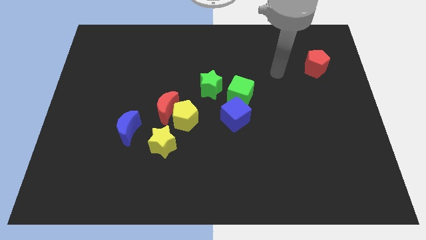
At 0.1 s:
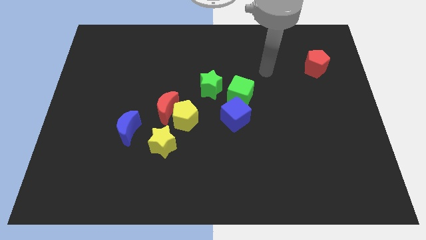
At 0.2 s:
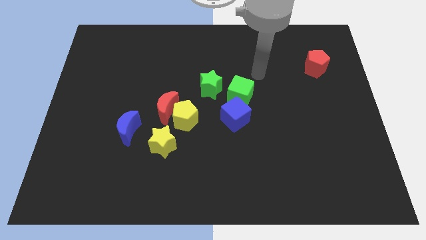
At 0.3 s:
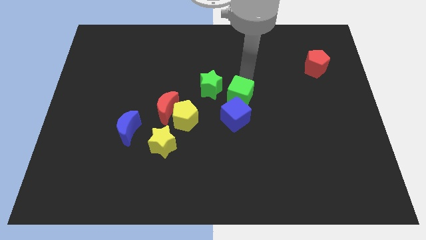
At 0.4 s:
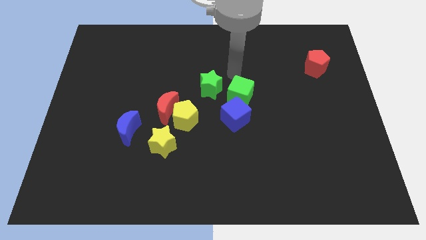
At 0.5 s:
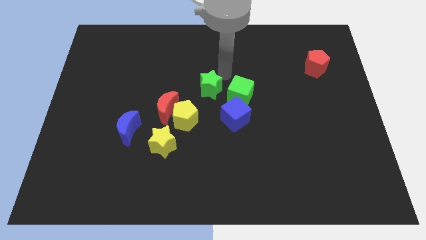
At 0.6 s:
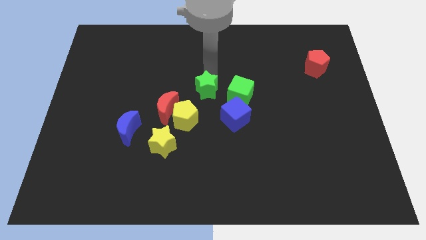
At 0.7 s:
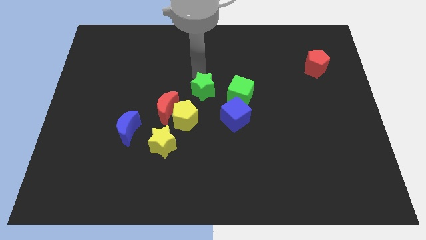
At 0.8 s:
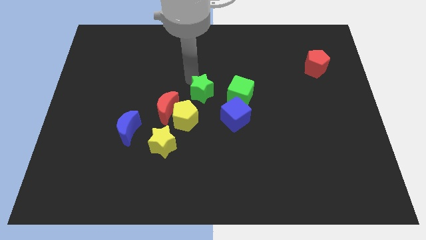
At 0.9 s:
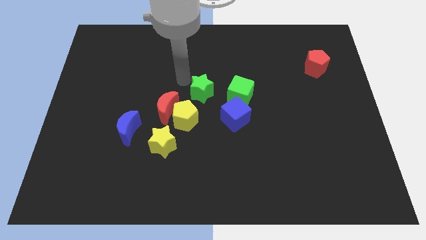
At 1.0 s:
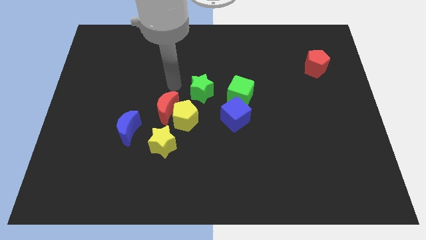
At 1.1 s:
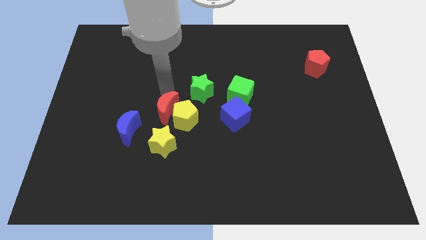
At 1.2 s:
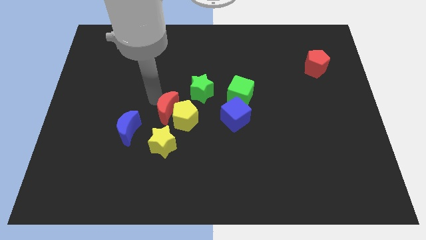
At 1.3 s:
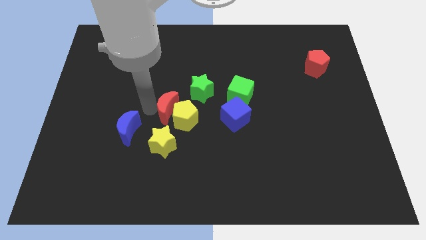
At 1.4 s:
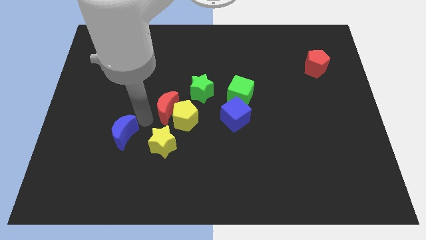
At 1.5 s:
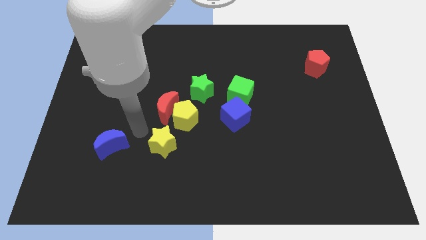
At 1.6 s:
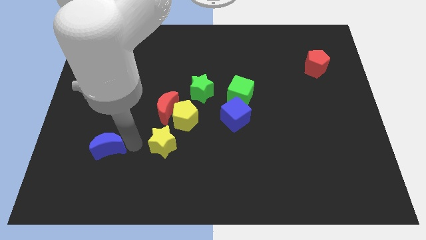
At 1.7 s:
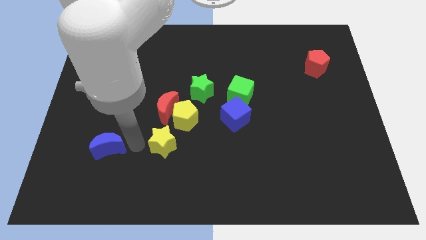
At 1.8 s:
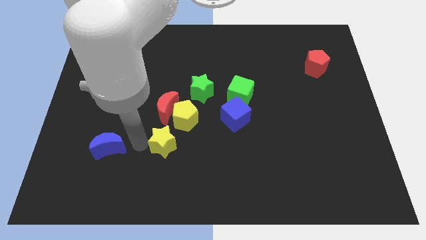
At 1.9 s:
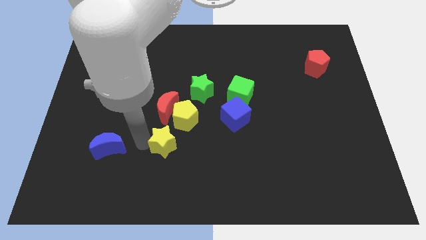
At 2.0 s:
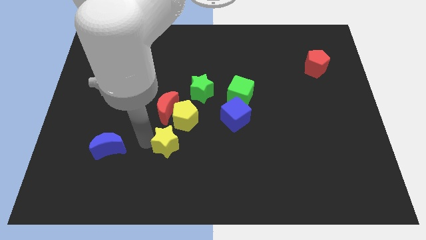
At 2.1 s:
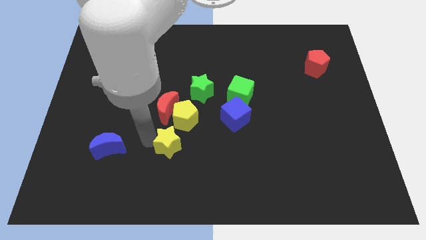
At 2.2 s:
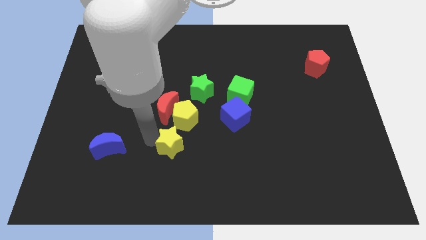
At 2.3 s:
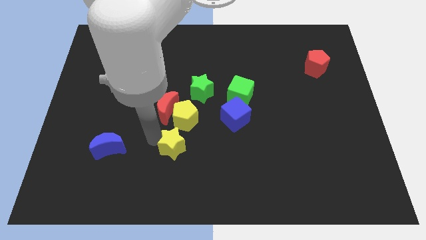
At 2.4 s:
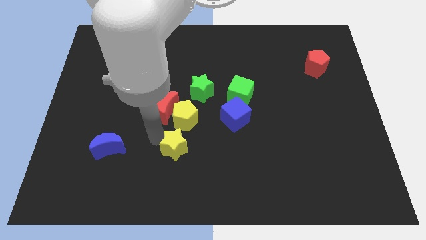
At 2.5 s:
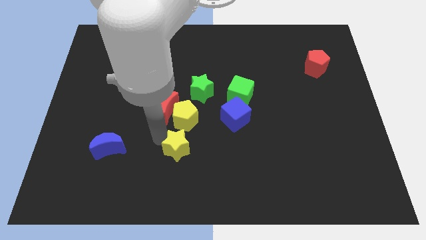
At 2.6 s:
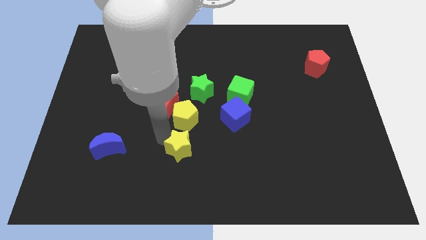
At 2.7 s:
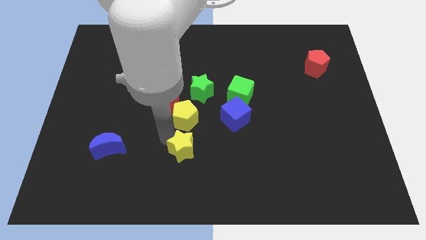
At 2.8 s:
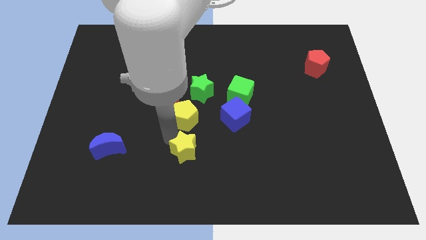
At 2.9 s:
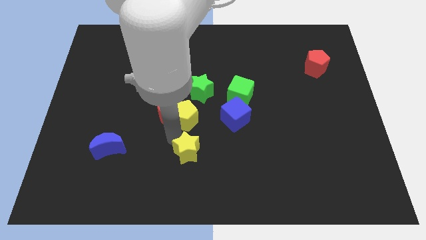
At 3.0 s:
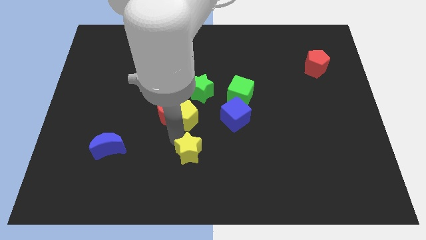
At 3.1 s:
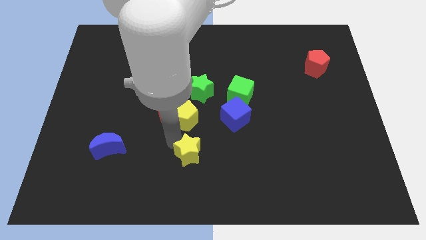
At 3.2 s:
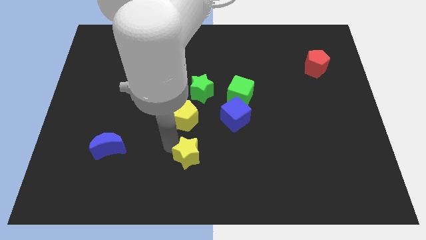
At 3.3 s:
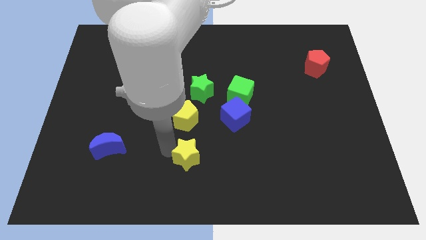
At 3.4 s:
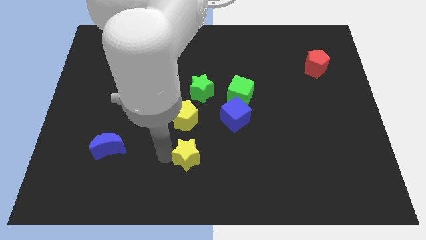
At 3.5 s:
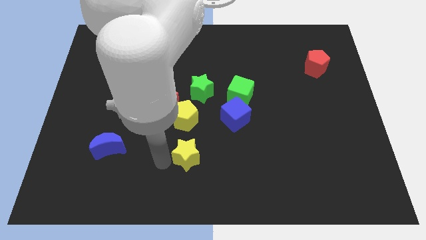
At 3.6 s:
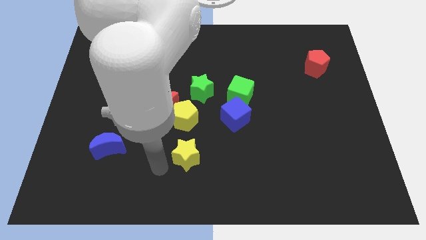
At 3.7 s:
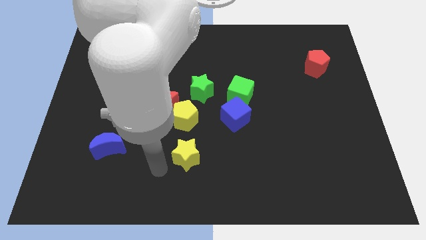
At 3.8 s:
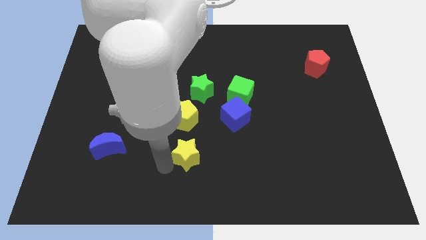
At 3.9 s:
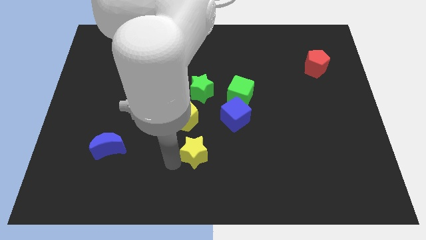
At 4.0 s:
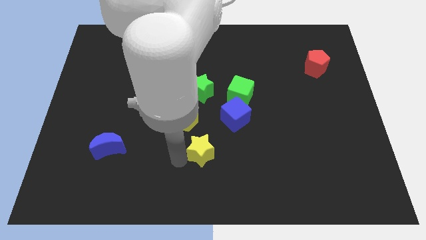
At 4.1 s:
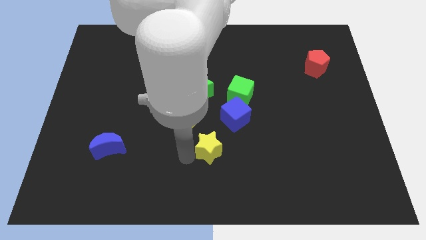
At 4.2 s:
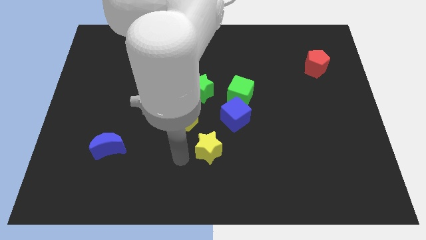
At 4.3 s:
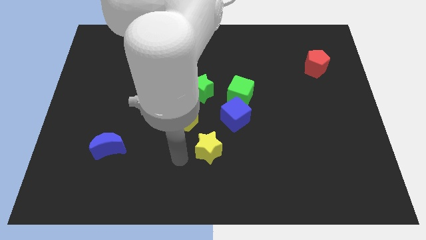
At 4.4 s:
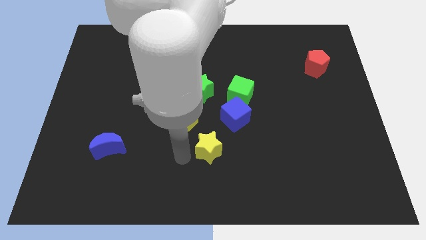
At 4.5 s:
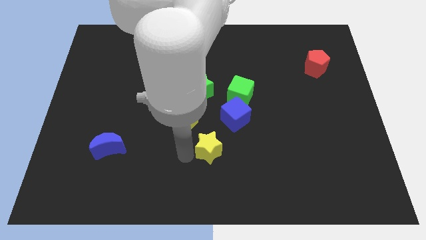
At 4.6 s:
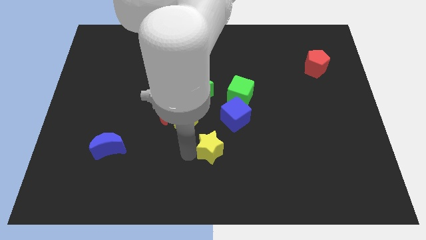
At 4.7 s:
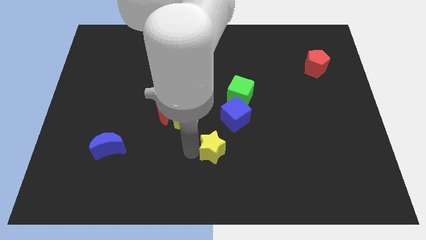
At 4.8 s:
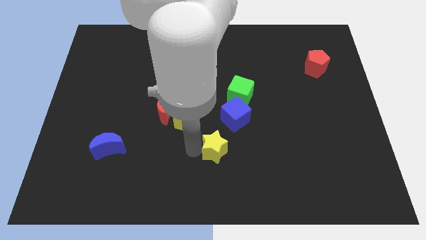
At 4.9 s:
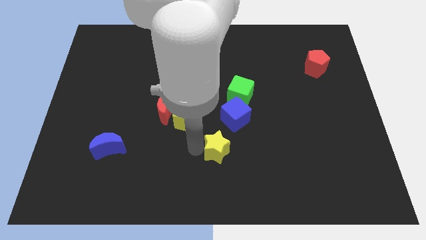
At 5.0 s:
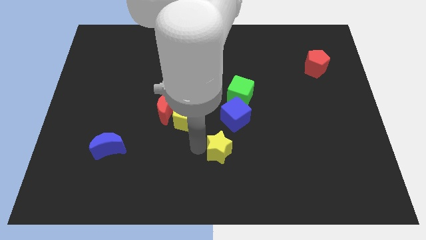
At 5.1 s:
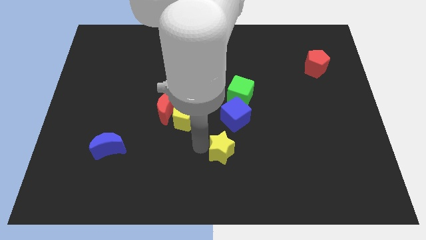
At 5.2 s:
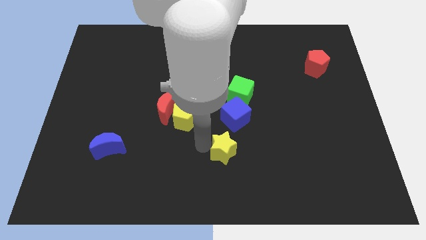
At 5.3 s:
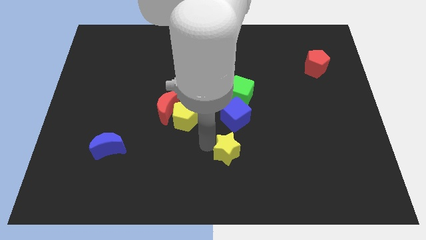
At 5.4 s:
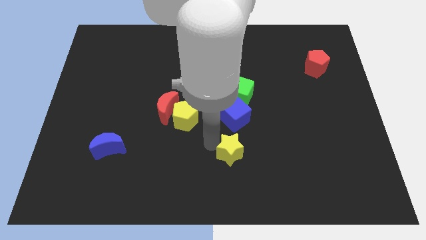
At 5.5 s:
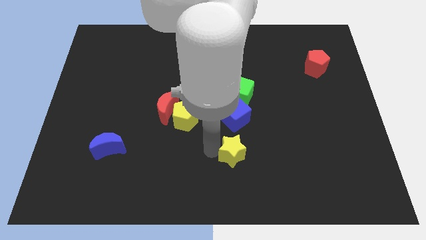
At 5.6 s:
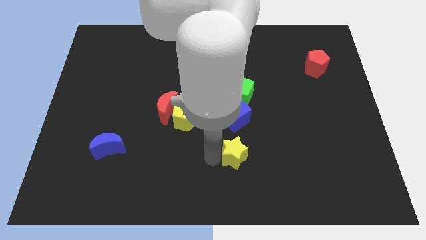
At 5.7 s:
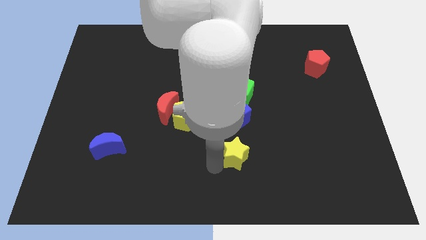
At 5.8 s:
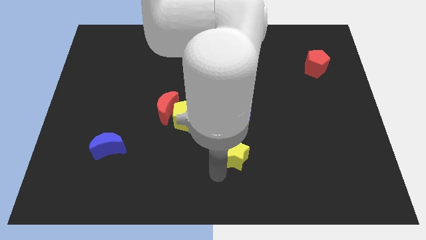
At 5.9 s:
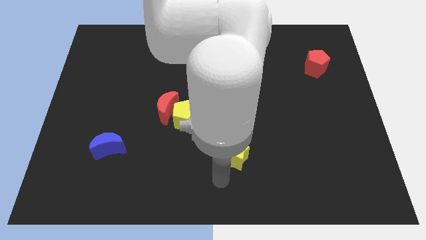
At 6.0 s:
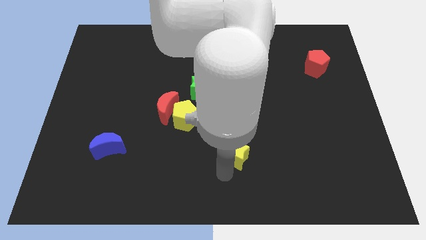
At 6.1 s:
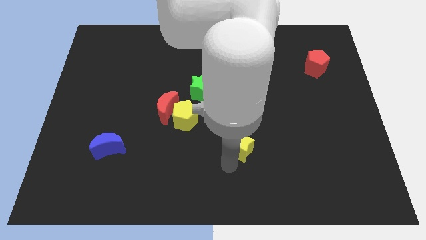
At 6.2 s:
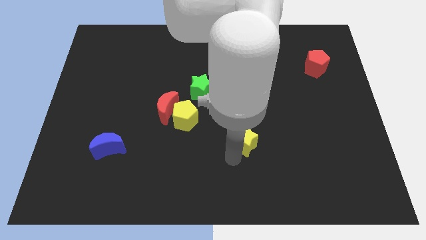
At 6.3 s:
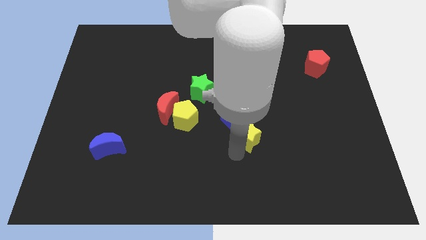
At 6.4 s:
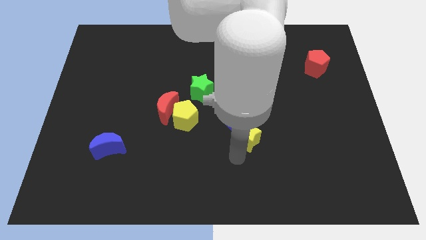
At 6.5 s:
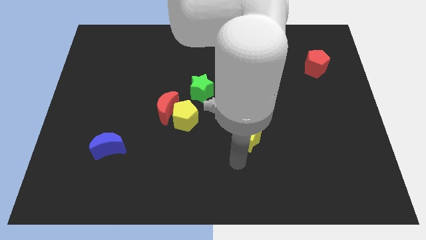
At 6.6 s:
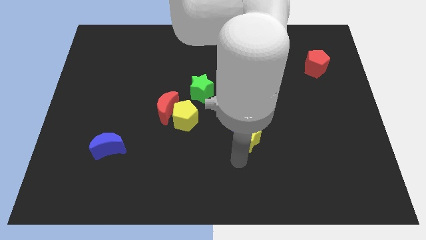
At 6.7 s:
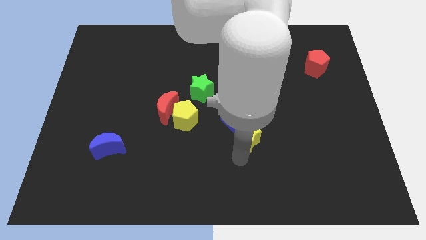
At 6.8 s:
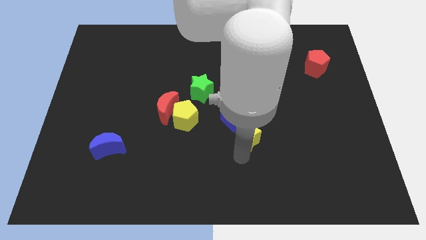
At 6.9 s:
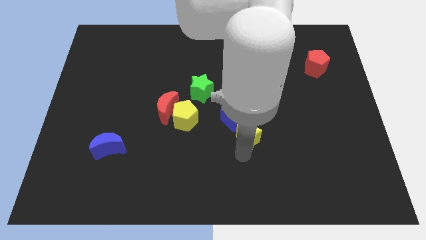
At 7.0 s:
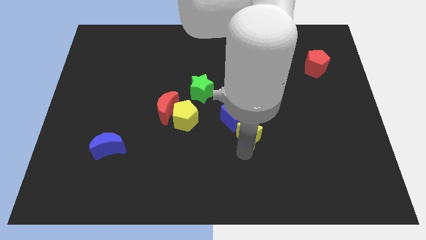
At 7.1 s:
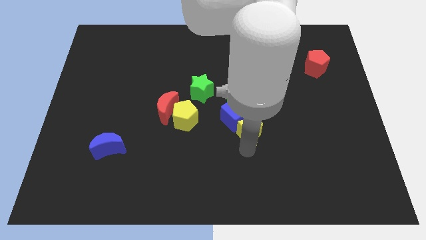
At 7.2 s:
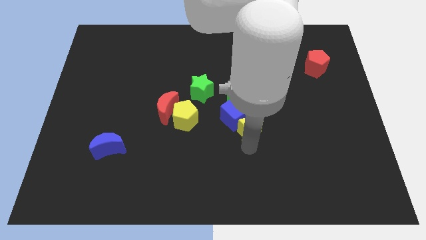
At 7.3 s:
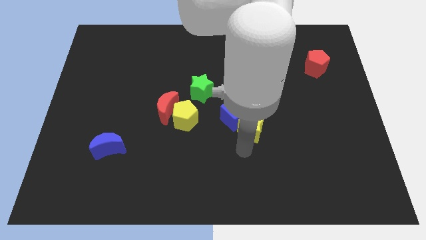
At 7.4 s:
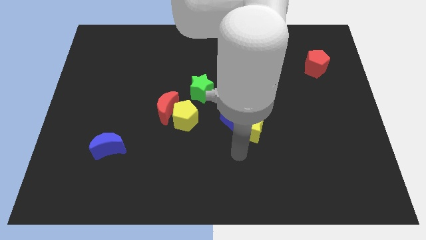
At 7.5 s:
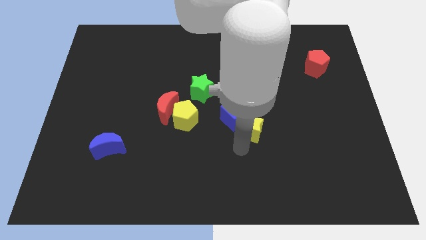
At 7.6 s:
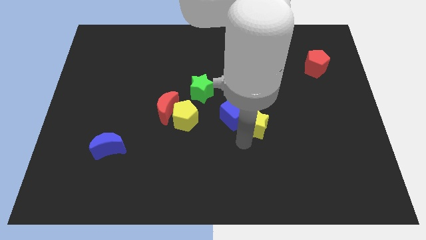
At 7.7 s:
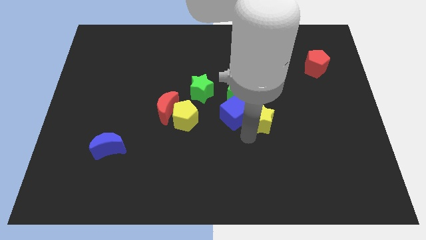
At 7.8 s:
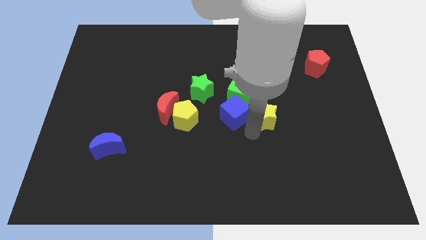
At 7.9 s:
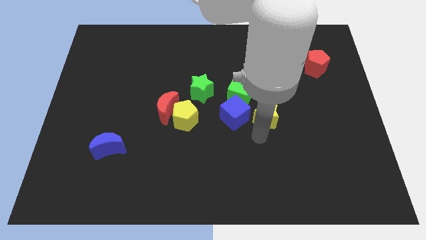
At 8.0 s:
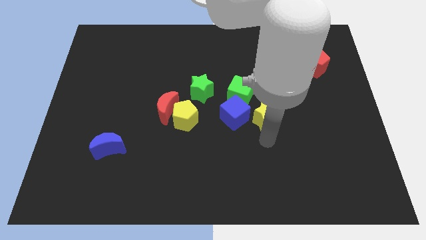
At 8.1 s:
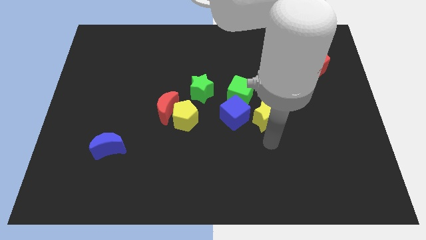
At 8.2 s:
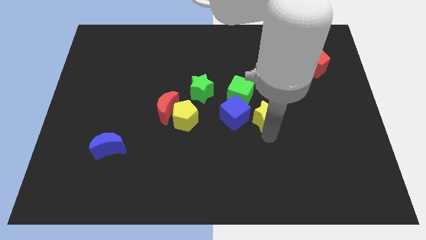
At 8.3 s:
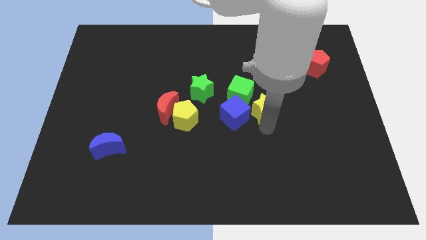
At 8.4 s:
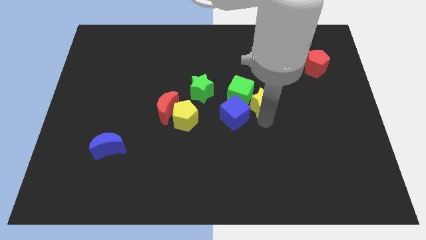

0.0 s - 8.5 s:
push the yellow star diagonally upwards and right
